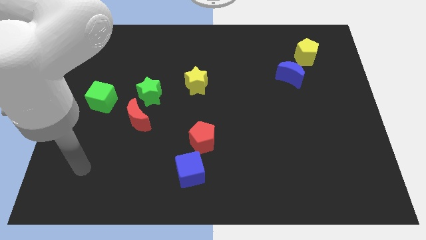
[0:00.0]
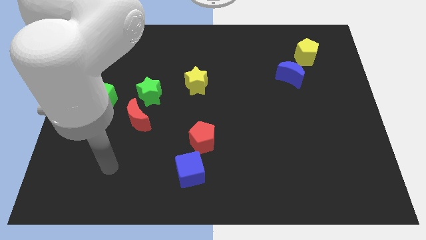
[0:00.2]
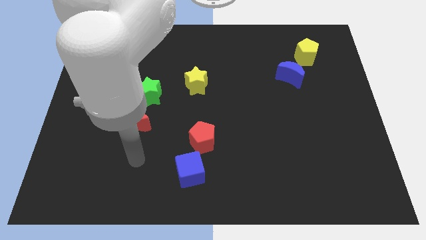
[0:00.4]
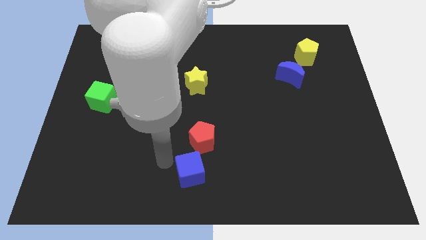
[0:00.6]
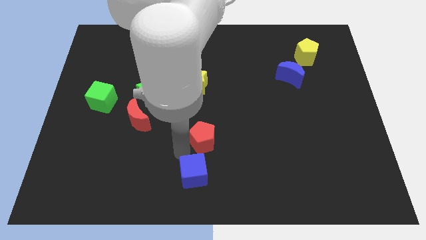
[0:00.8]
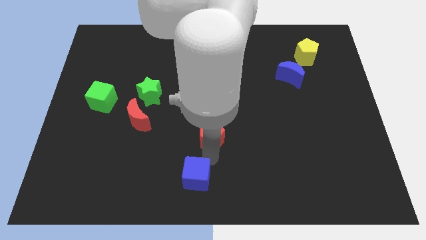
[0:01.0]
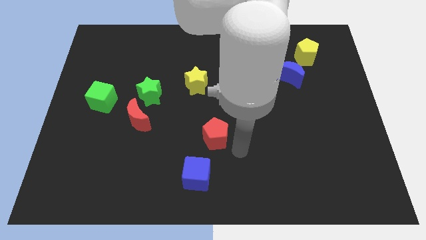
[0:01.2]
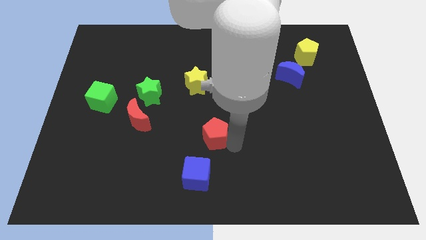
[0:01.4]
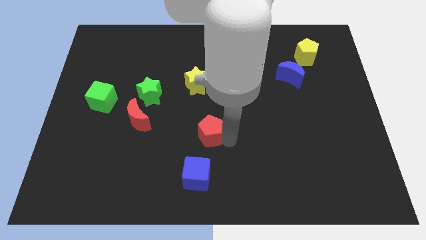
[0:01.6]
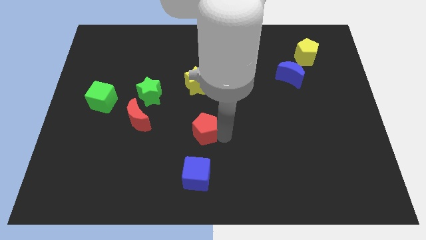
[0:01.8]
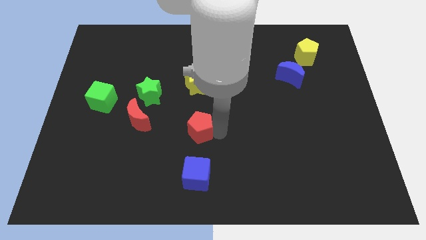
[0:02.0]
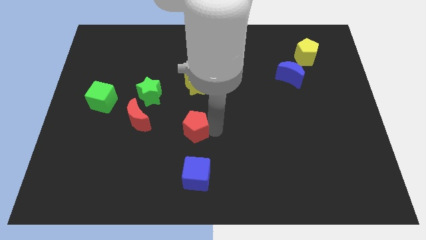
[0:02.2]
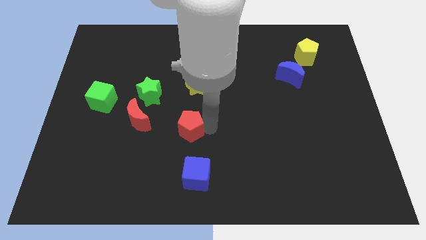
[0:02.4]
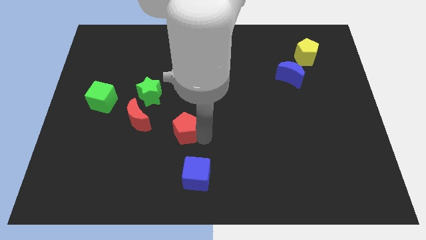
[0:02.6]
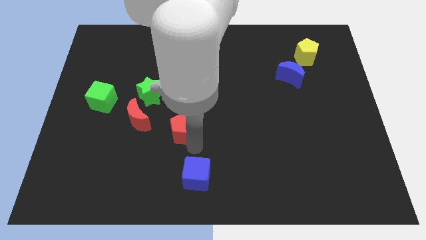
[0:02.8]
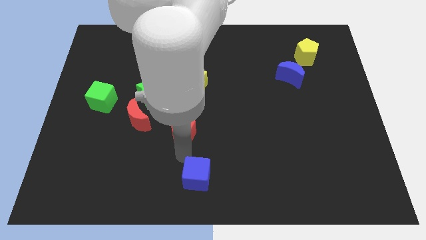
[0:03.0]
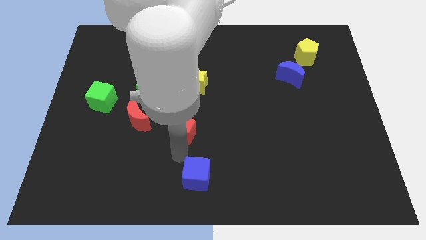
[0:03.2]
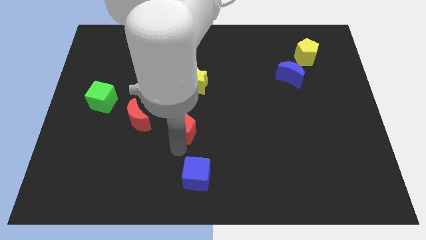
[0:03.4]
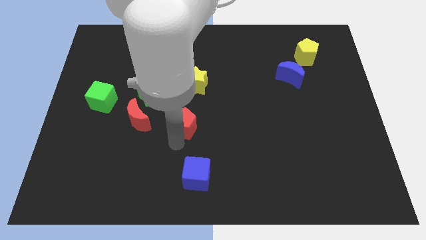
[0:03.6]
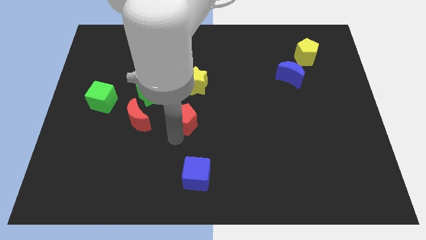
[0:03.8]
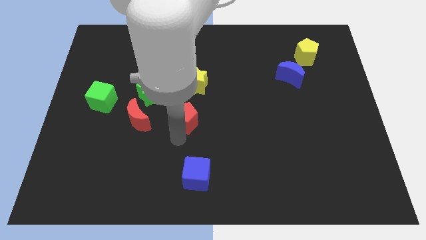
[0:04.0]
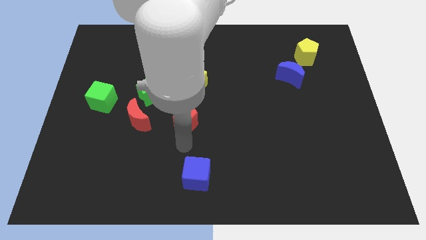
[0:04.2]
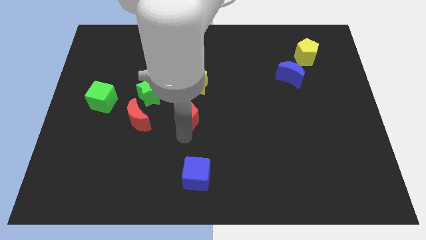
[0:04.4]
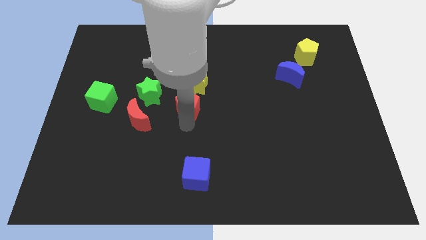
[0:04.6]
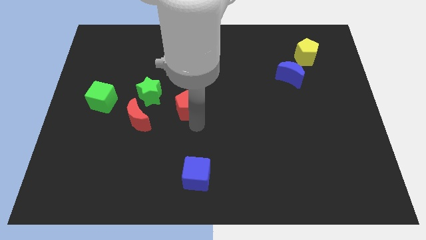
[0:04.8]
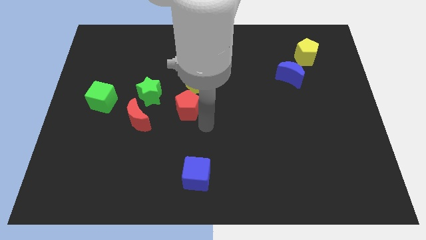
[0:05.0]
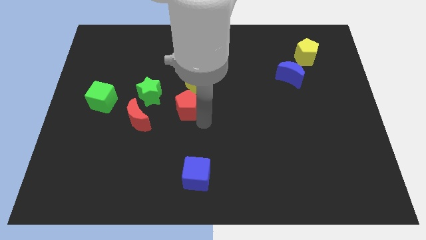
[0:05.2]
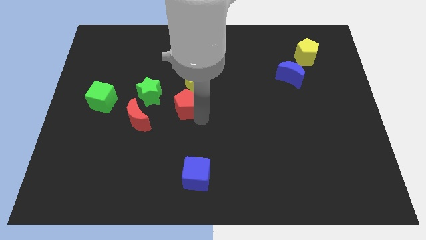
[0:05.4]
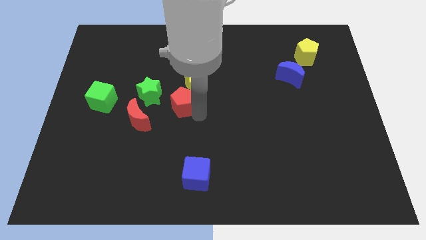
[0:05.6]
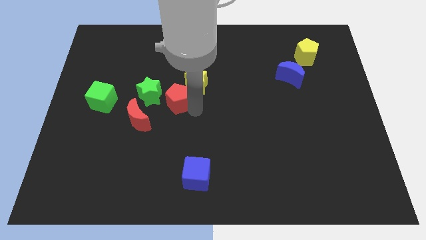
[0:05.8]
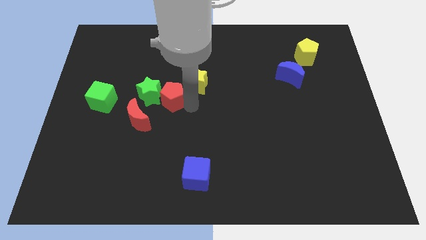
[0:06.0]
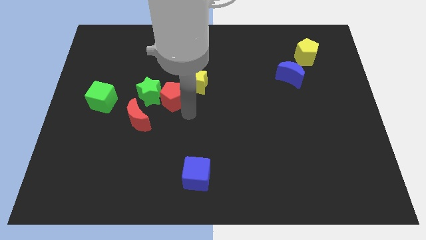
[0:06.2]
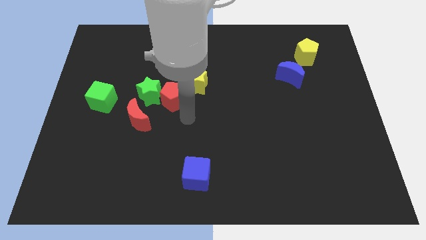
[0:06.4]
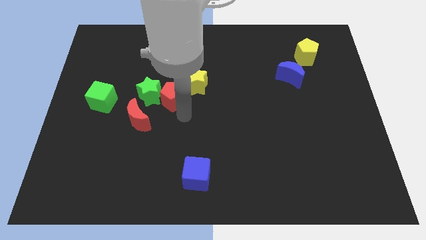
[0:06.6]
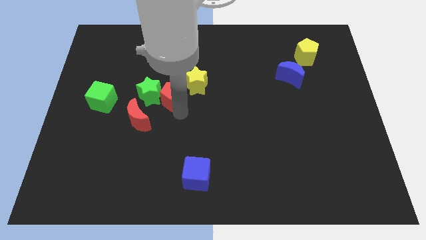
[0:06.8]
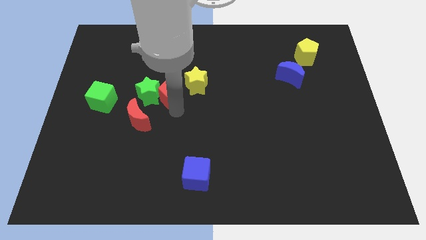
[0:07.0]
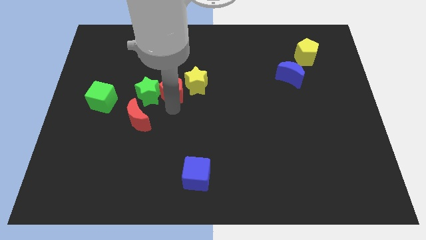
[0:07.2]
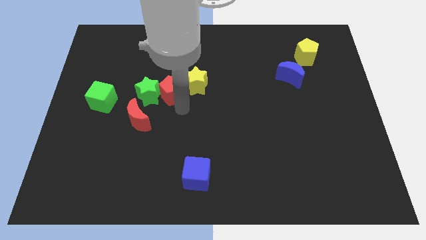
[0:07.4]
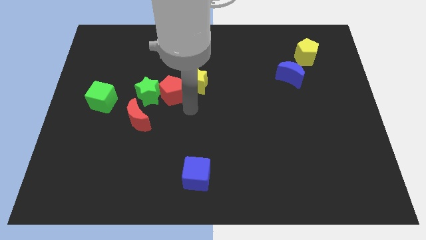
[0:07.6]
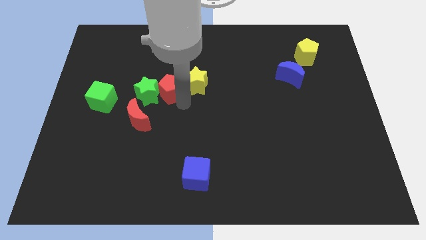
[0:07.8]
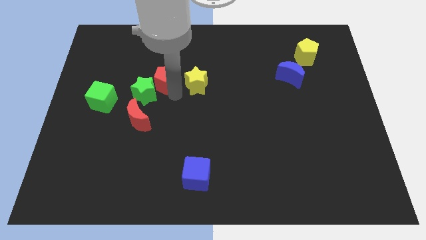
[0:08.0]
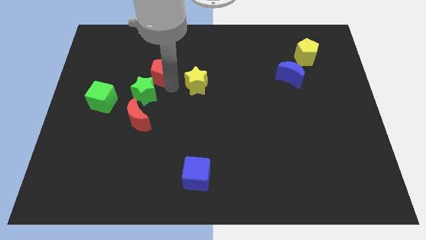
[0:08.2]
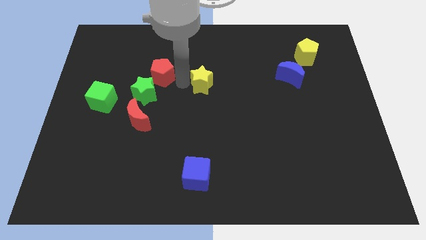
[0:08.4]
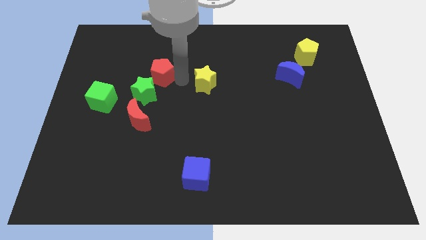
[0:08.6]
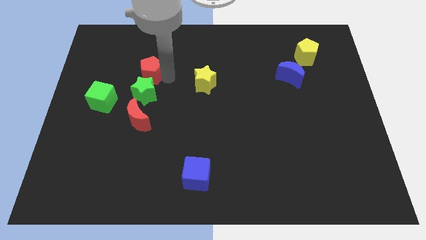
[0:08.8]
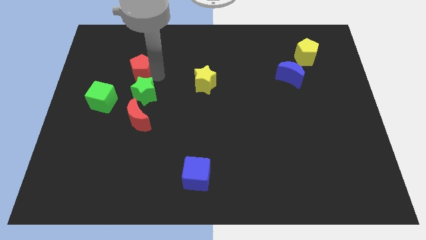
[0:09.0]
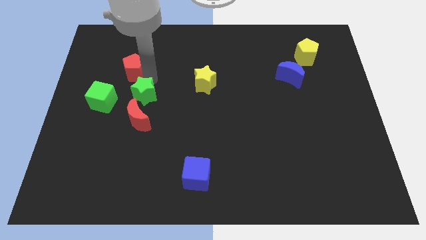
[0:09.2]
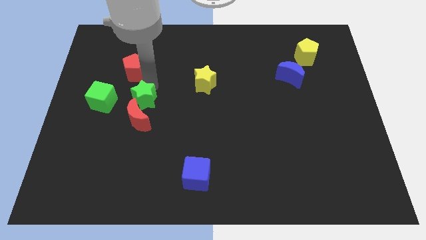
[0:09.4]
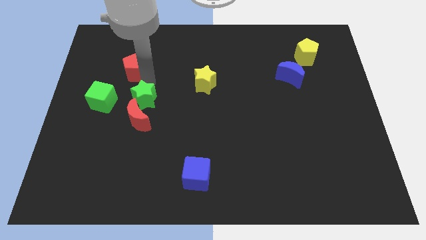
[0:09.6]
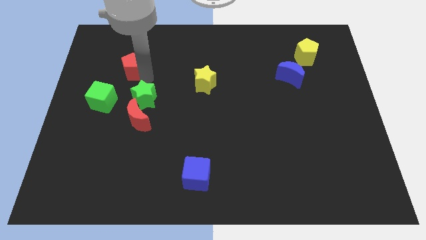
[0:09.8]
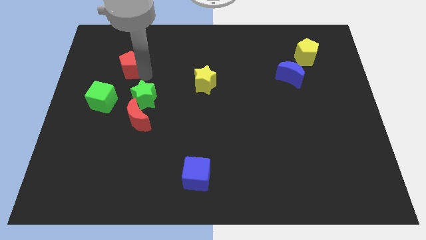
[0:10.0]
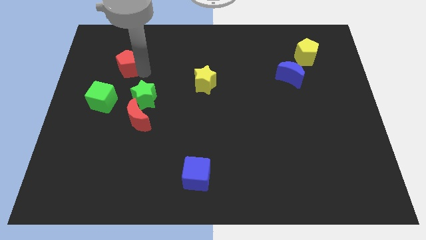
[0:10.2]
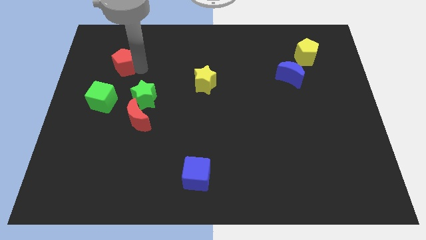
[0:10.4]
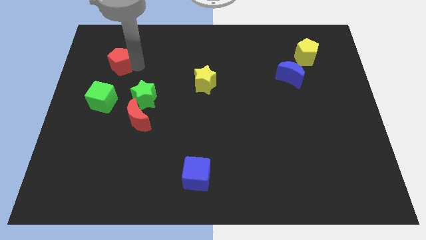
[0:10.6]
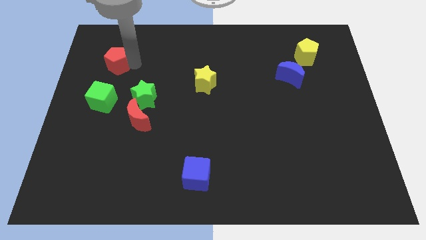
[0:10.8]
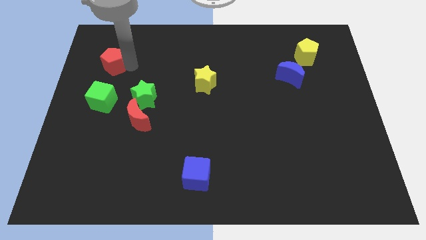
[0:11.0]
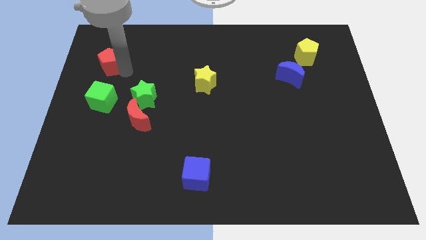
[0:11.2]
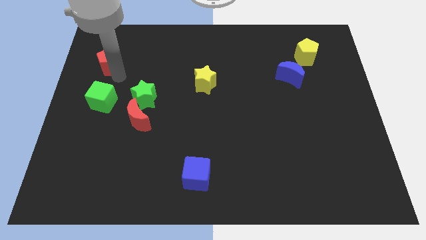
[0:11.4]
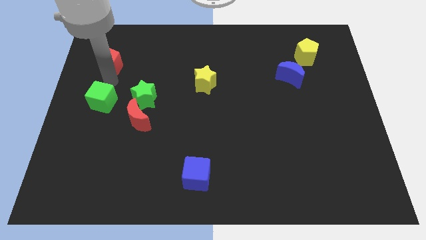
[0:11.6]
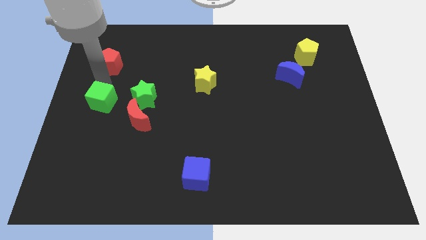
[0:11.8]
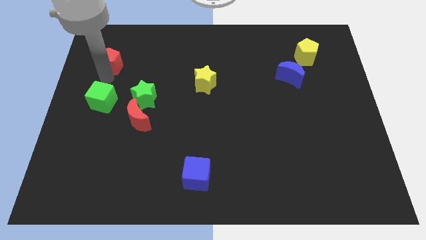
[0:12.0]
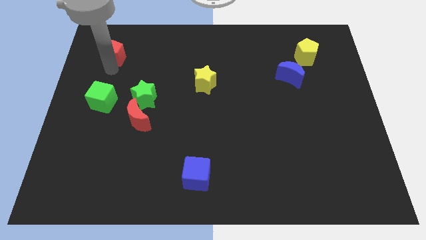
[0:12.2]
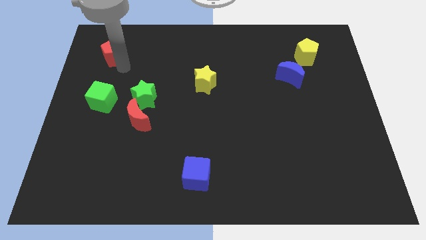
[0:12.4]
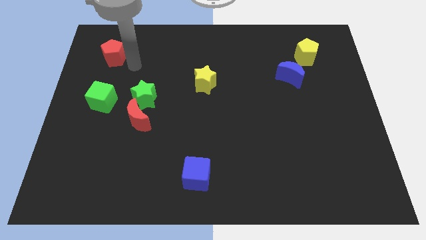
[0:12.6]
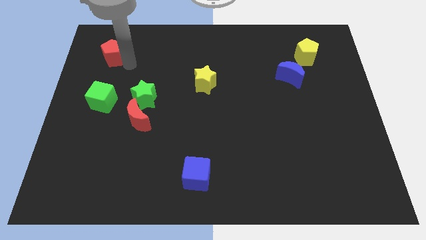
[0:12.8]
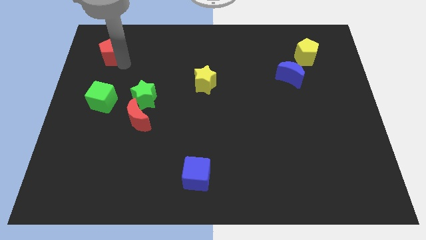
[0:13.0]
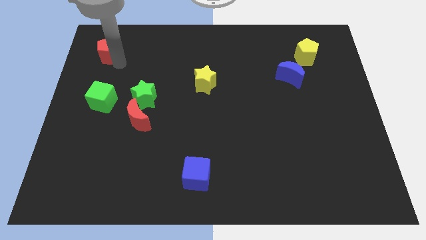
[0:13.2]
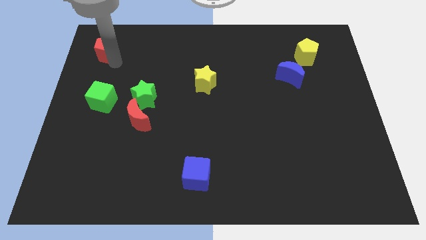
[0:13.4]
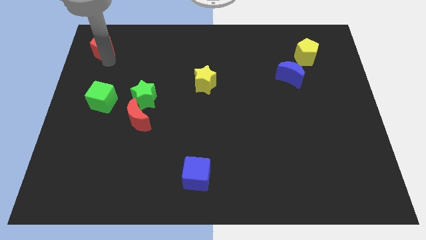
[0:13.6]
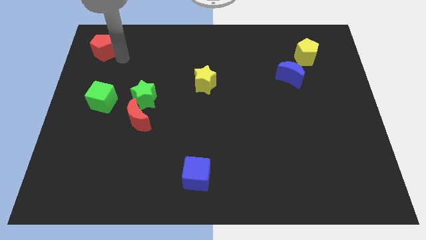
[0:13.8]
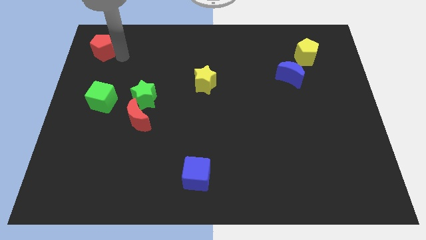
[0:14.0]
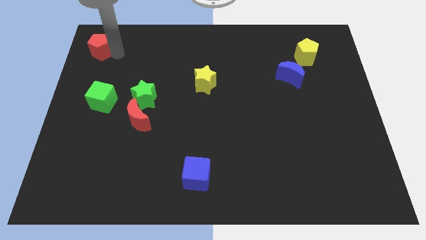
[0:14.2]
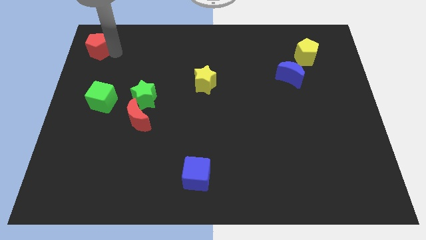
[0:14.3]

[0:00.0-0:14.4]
put the red pentagon to the top left
